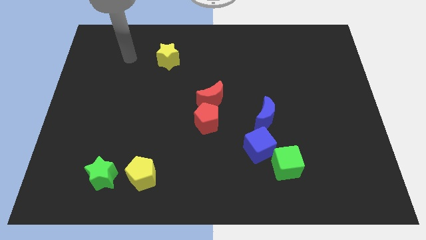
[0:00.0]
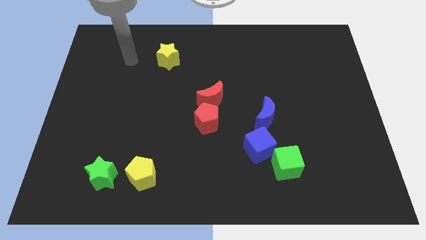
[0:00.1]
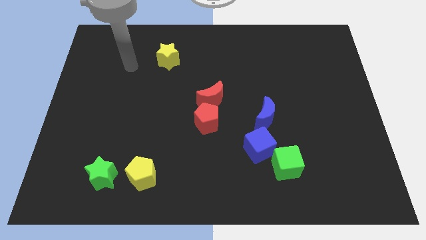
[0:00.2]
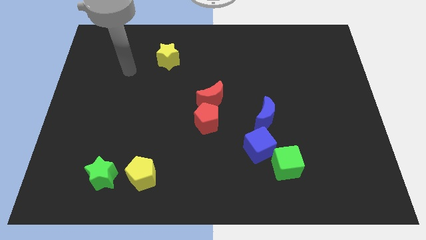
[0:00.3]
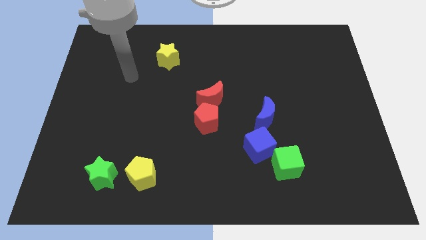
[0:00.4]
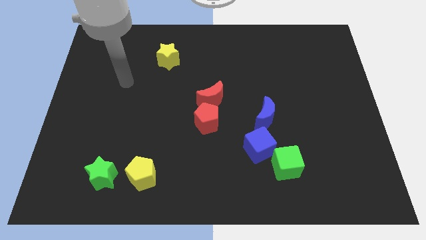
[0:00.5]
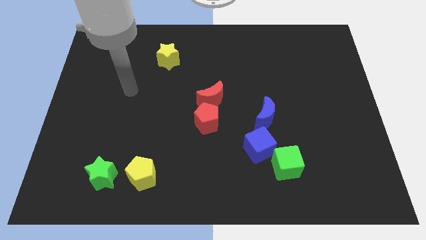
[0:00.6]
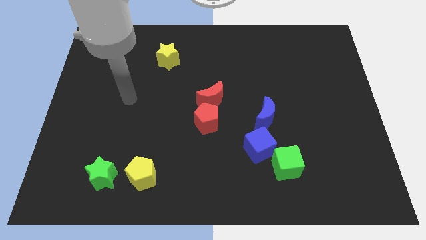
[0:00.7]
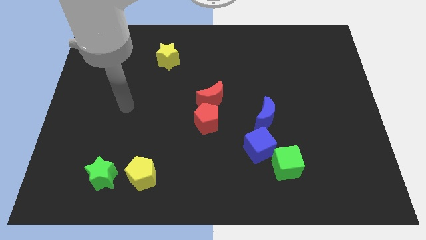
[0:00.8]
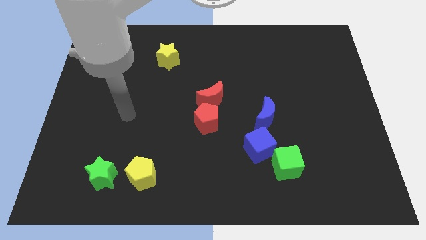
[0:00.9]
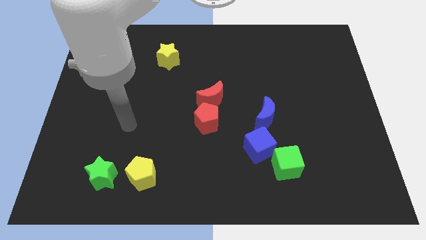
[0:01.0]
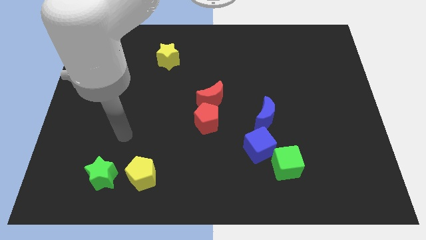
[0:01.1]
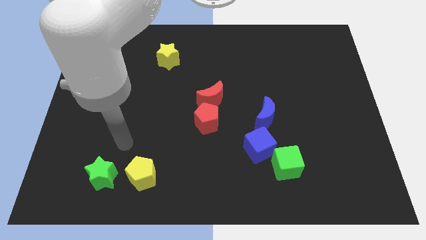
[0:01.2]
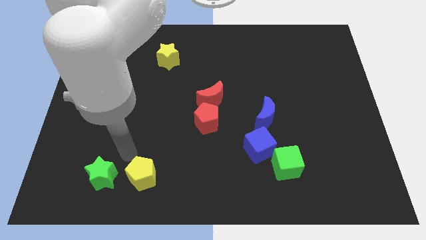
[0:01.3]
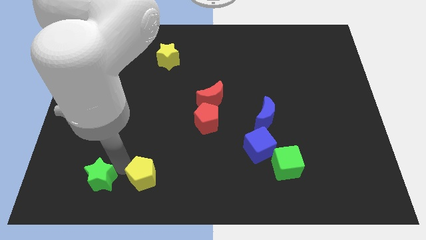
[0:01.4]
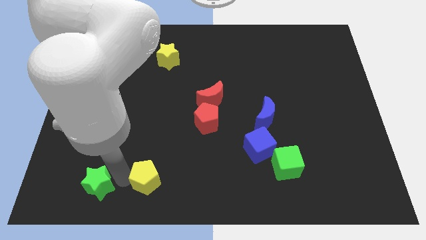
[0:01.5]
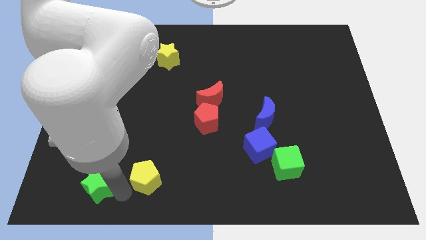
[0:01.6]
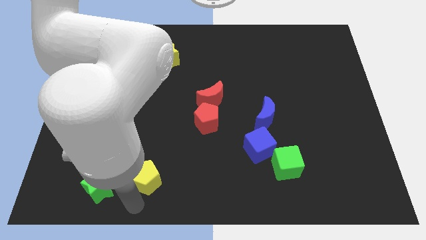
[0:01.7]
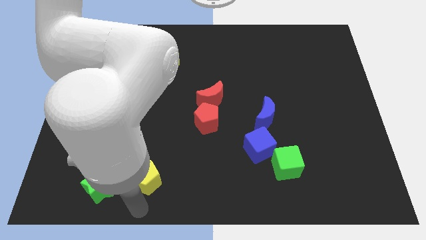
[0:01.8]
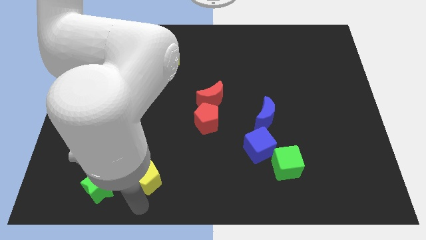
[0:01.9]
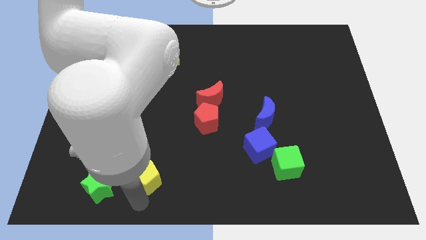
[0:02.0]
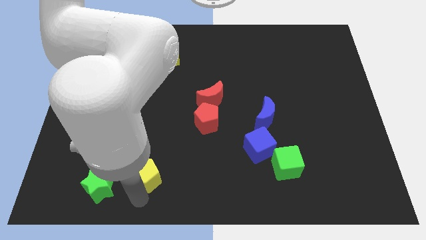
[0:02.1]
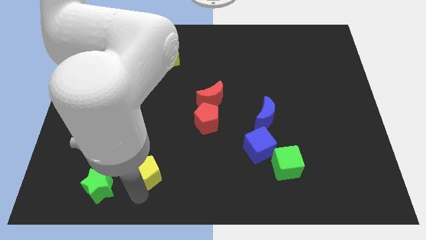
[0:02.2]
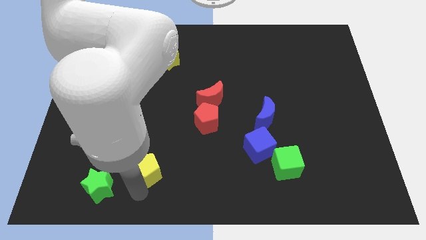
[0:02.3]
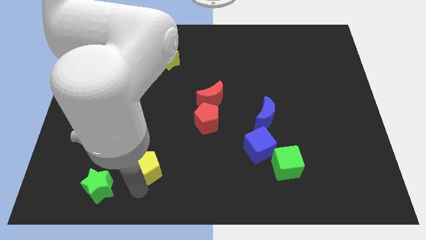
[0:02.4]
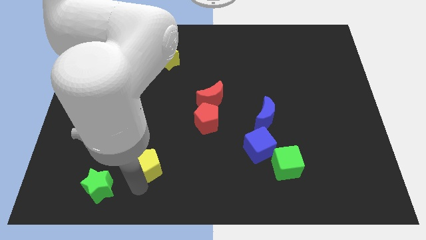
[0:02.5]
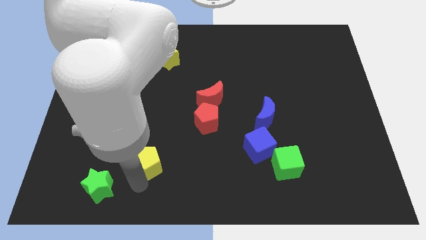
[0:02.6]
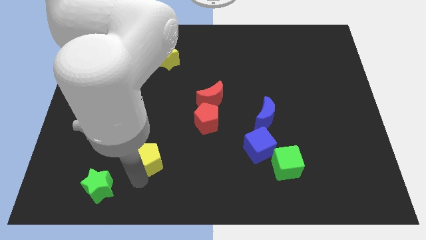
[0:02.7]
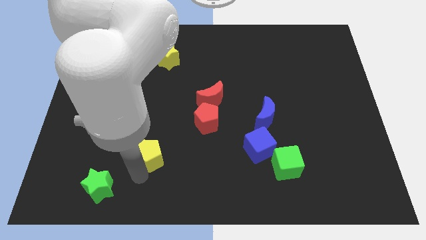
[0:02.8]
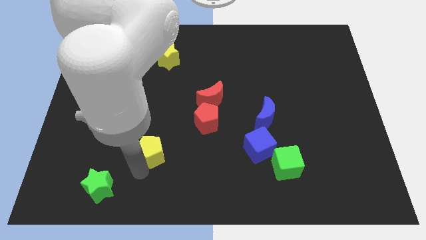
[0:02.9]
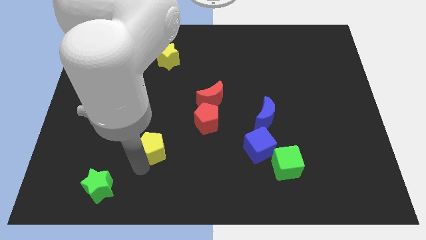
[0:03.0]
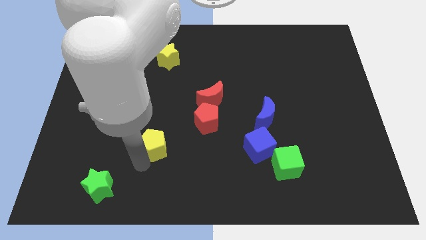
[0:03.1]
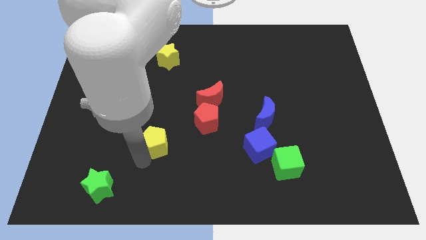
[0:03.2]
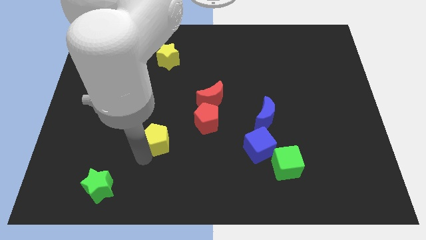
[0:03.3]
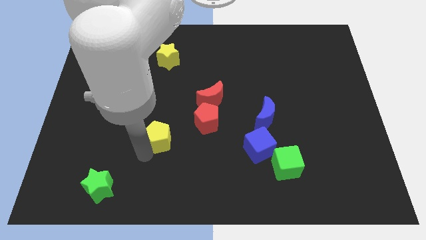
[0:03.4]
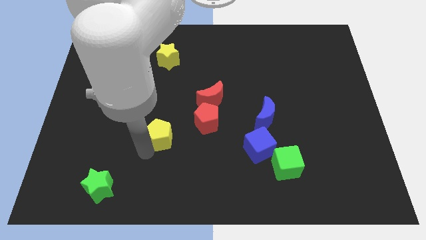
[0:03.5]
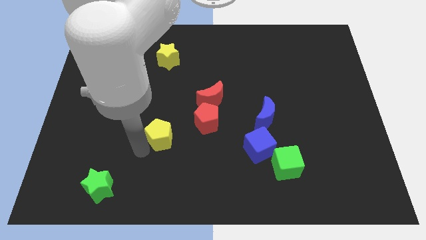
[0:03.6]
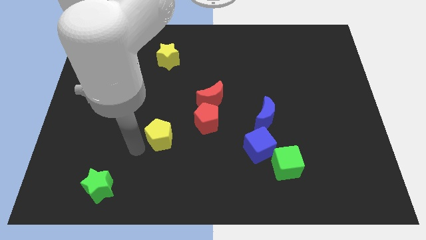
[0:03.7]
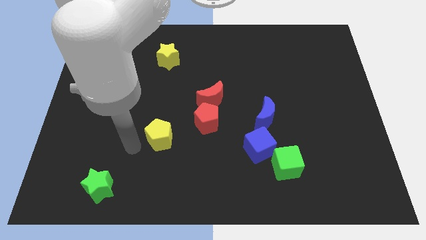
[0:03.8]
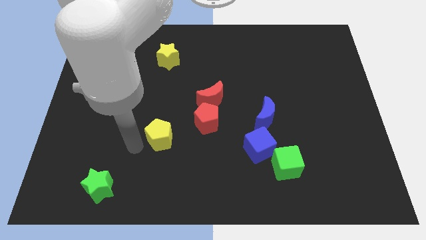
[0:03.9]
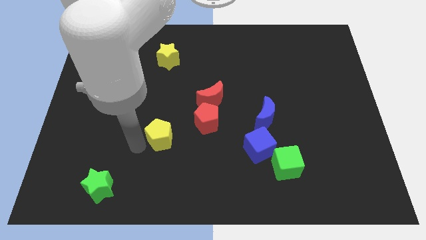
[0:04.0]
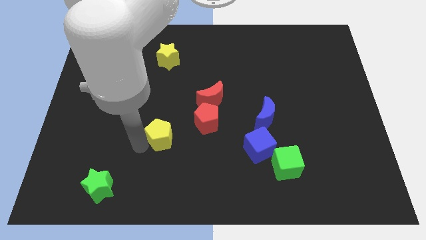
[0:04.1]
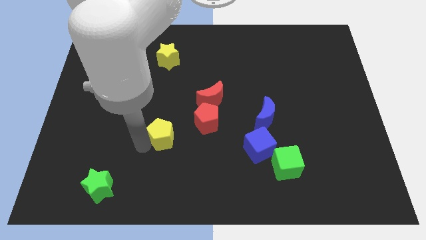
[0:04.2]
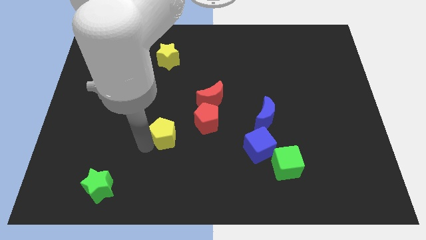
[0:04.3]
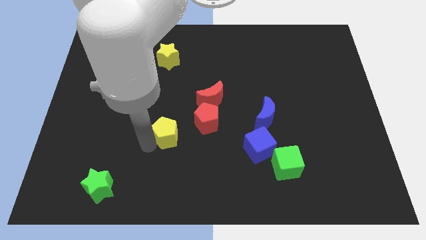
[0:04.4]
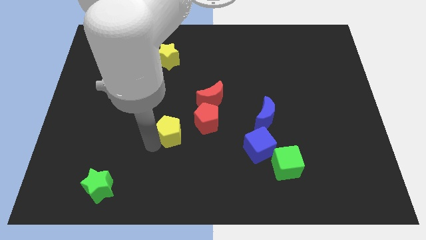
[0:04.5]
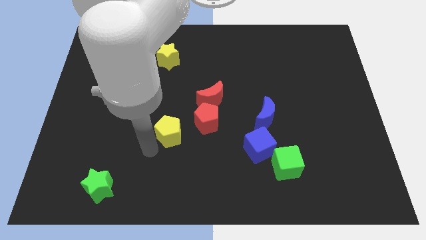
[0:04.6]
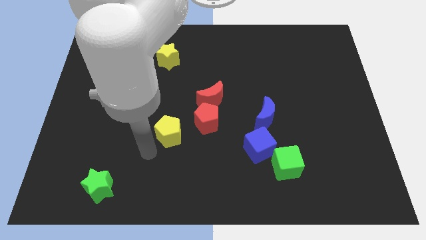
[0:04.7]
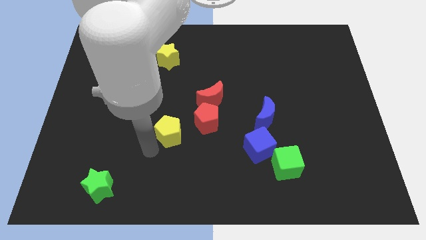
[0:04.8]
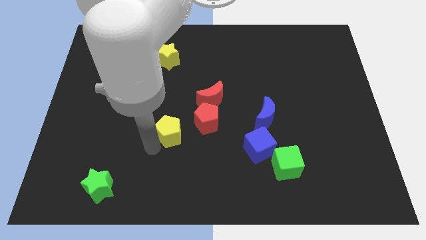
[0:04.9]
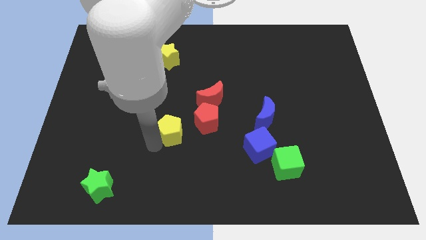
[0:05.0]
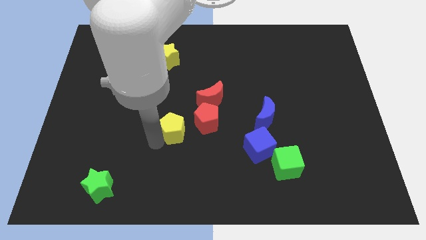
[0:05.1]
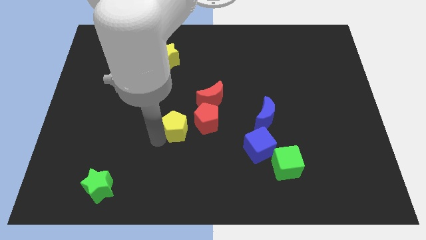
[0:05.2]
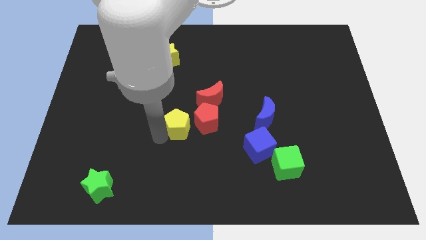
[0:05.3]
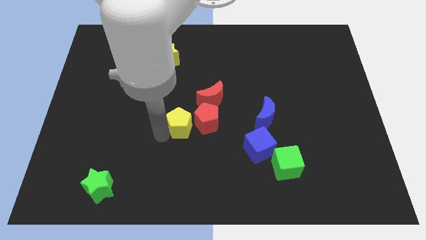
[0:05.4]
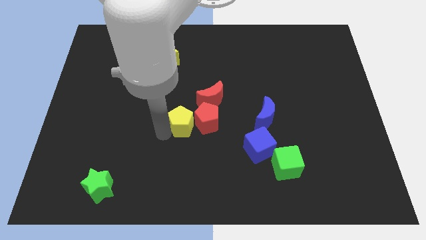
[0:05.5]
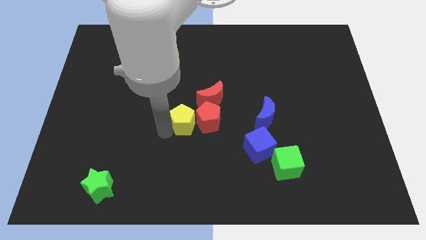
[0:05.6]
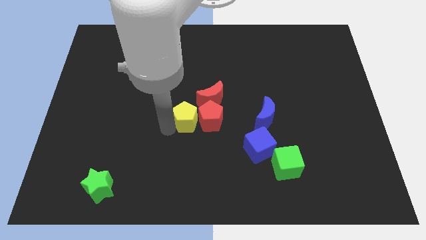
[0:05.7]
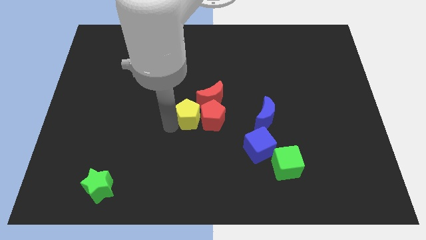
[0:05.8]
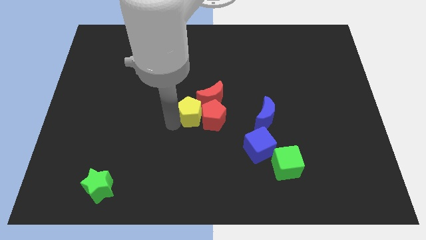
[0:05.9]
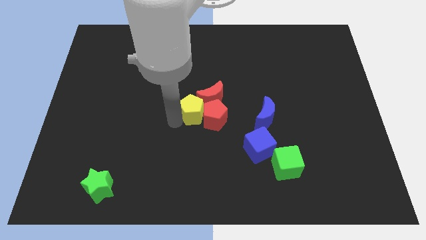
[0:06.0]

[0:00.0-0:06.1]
put the yellow pentagon towards the red moon

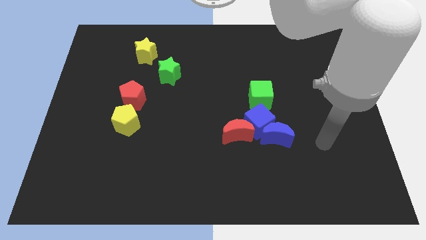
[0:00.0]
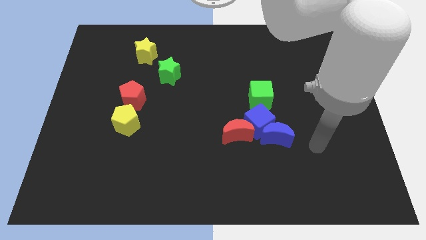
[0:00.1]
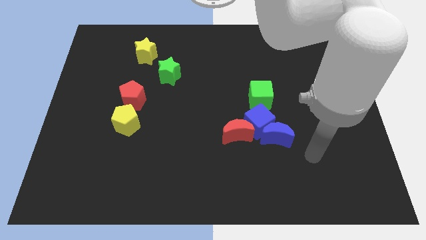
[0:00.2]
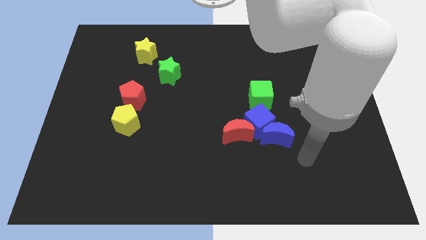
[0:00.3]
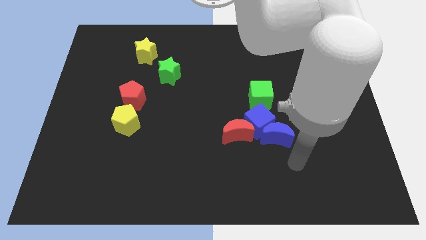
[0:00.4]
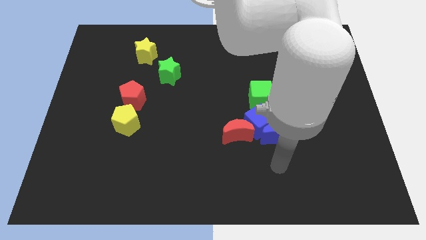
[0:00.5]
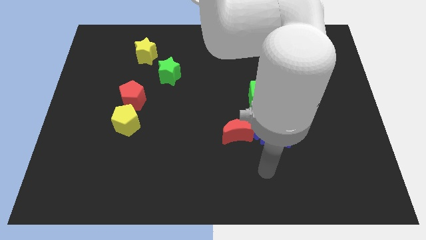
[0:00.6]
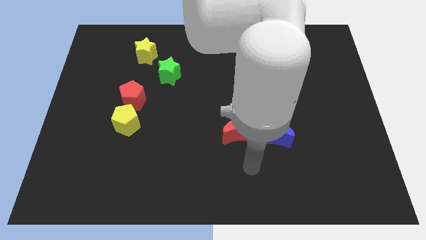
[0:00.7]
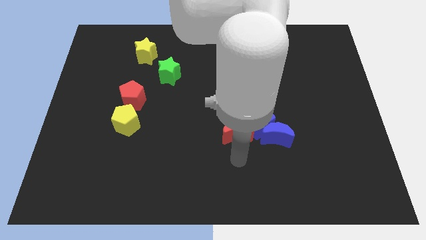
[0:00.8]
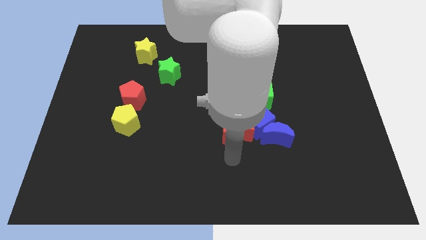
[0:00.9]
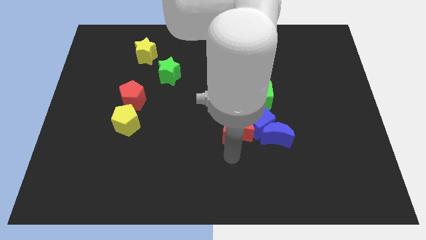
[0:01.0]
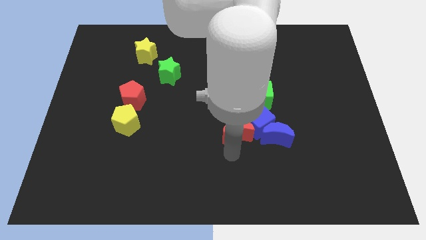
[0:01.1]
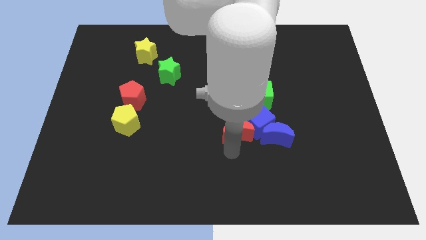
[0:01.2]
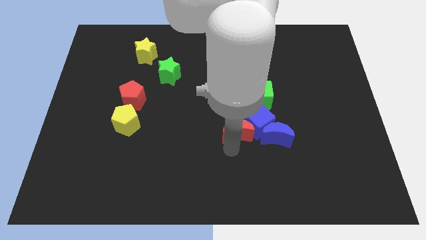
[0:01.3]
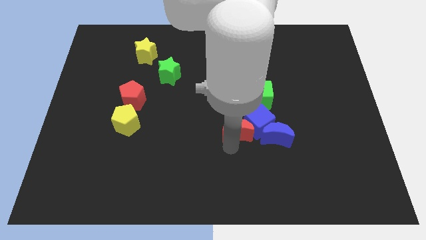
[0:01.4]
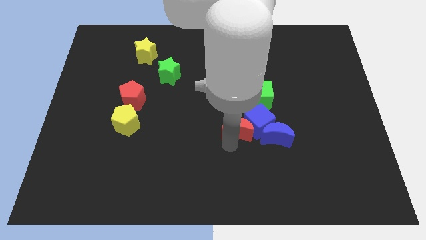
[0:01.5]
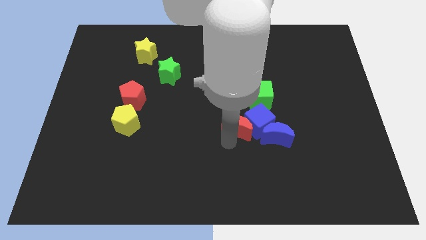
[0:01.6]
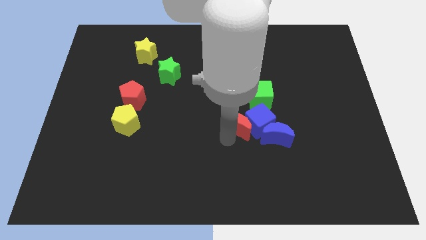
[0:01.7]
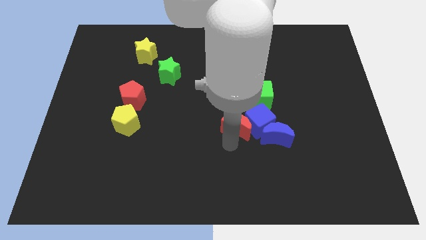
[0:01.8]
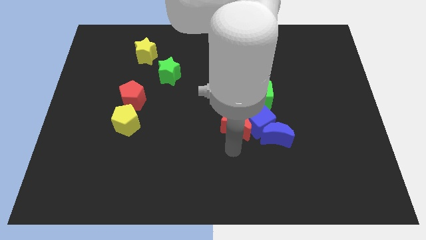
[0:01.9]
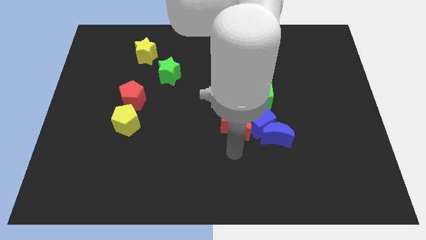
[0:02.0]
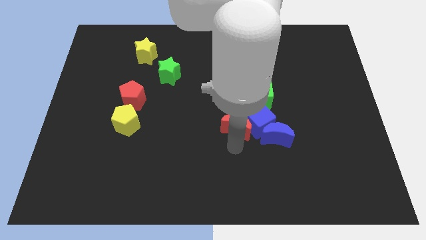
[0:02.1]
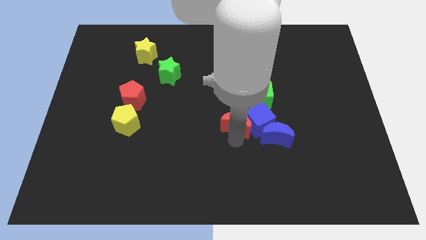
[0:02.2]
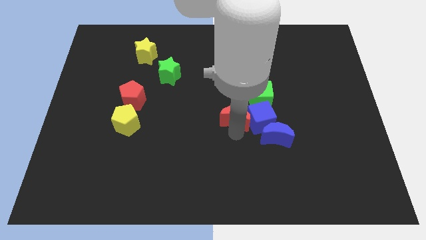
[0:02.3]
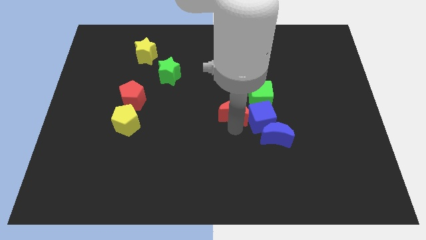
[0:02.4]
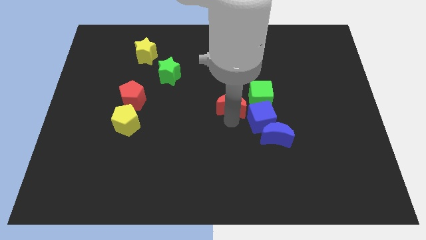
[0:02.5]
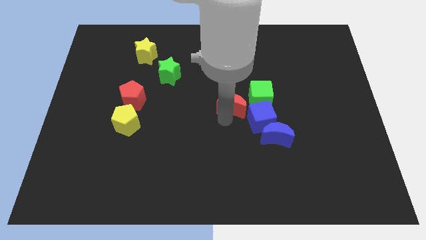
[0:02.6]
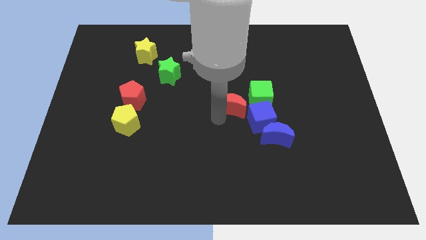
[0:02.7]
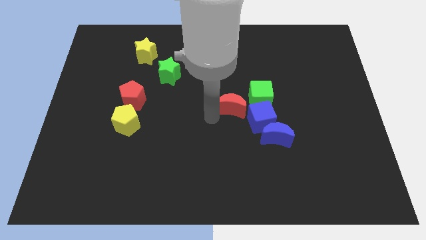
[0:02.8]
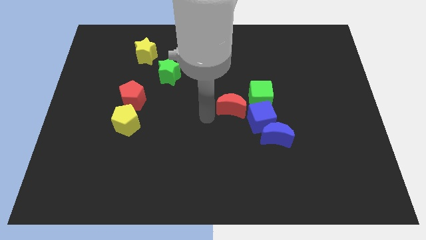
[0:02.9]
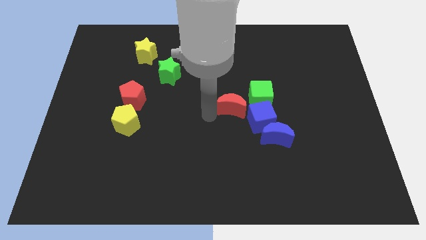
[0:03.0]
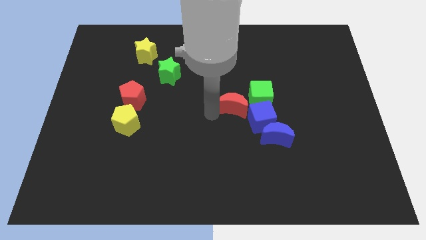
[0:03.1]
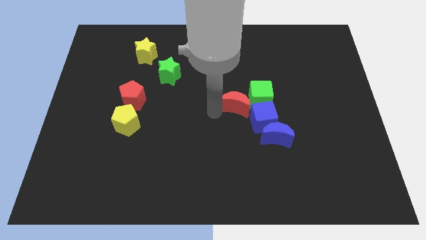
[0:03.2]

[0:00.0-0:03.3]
slide the red moon close to the green cube
